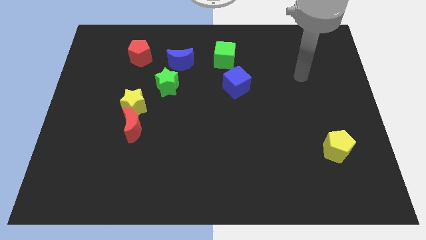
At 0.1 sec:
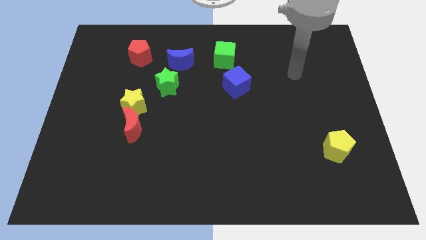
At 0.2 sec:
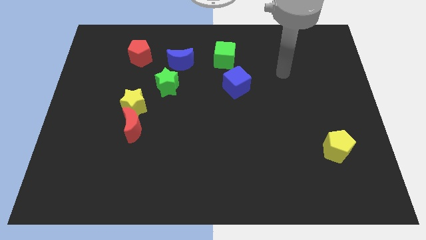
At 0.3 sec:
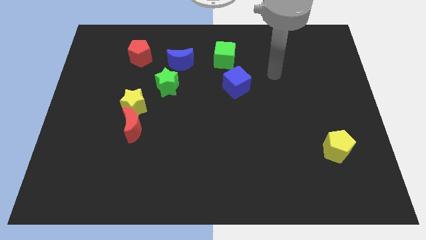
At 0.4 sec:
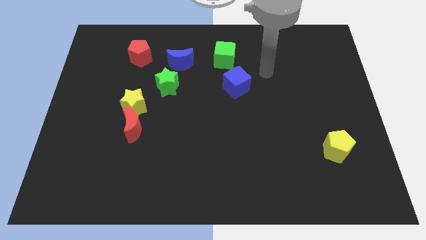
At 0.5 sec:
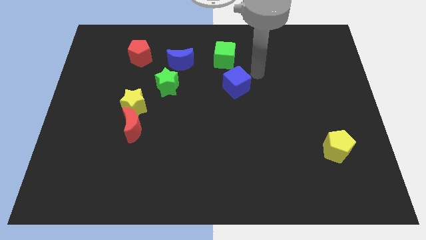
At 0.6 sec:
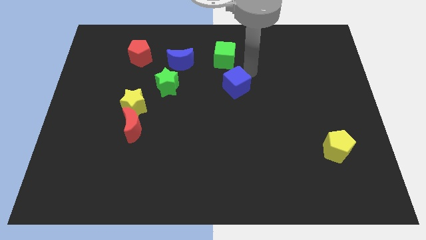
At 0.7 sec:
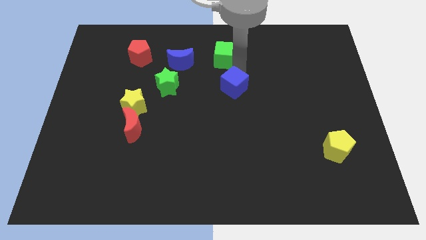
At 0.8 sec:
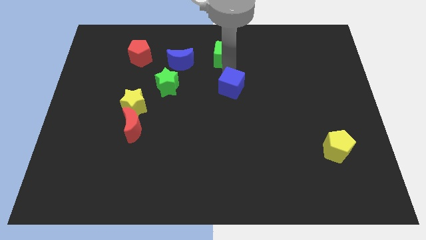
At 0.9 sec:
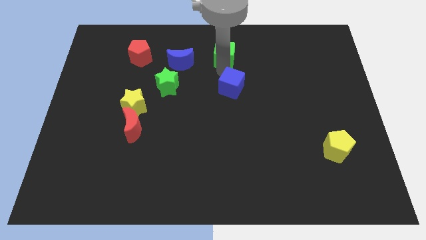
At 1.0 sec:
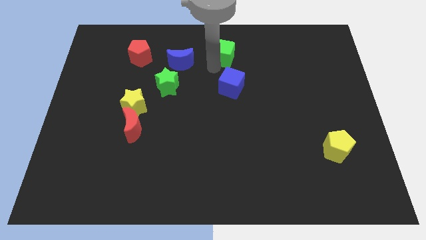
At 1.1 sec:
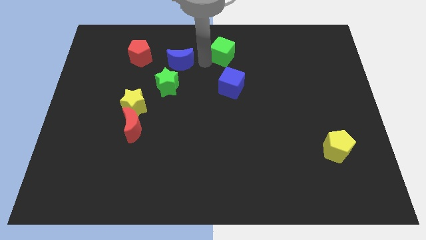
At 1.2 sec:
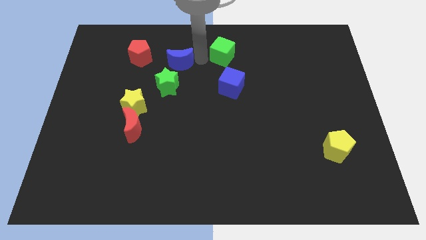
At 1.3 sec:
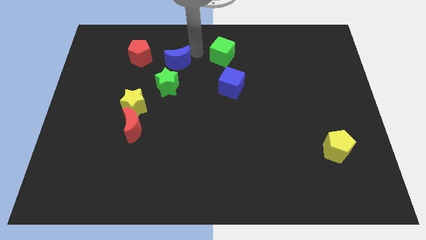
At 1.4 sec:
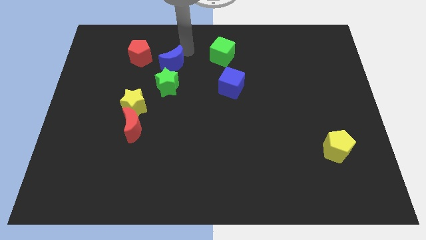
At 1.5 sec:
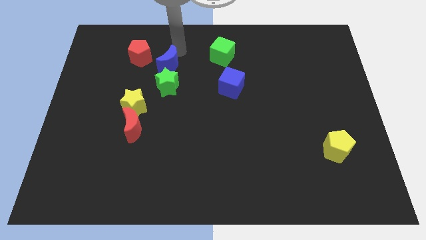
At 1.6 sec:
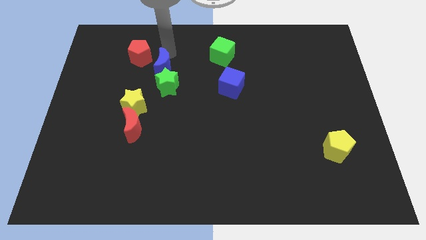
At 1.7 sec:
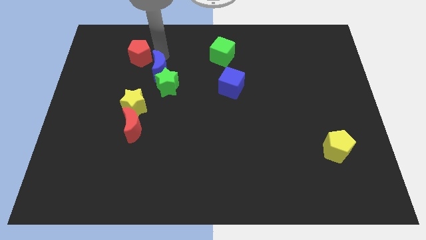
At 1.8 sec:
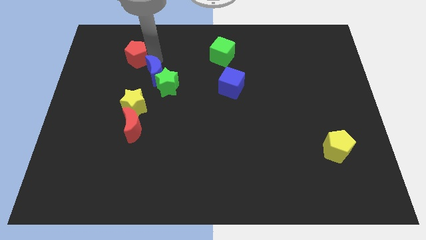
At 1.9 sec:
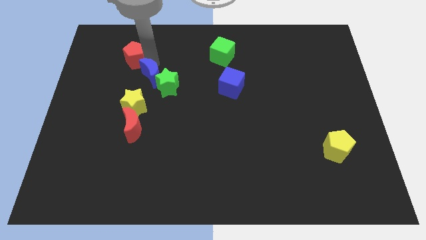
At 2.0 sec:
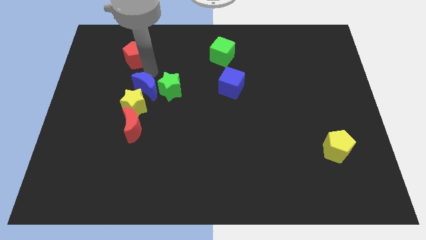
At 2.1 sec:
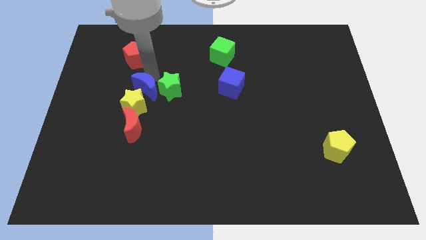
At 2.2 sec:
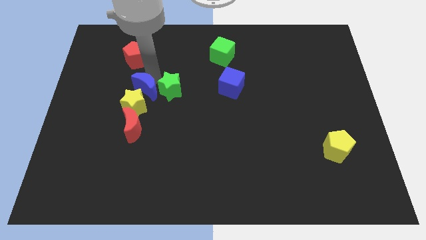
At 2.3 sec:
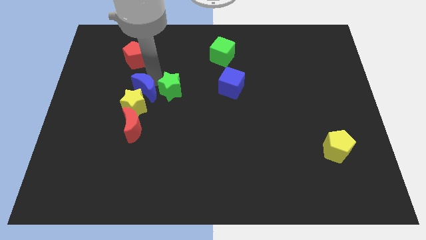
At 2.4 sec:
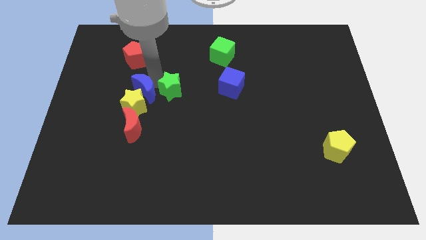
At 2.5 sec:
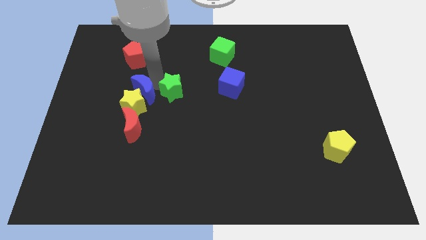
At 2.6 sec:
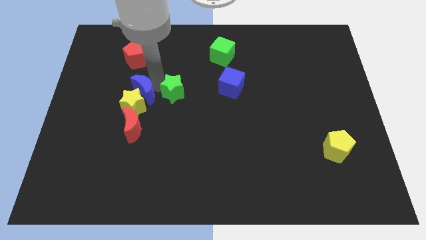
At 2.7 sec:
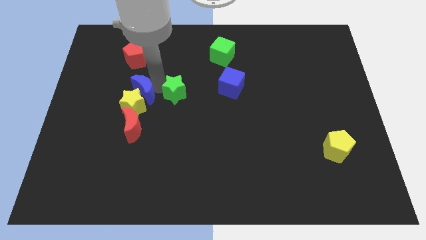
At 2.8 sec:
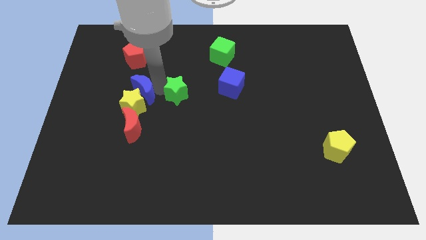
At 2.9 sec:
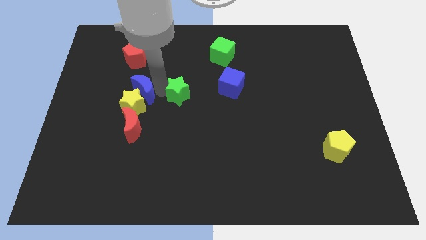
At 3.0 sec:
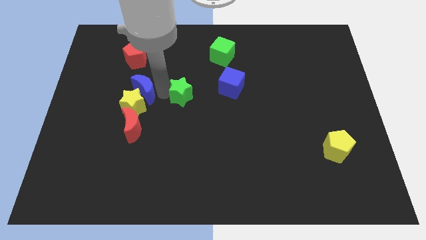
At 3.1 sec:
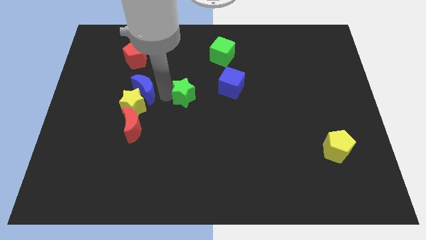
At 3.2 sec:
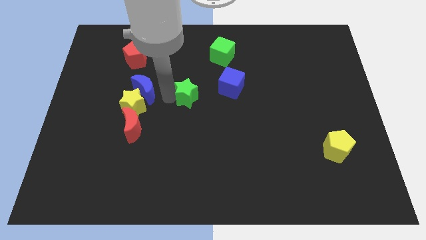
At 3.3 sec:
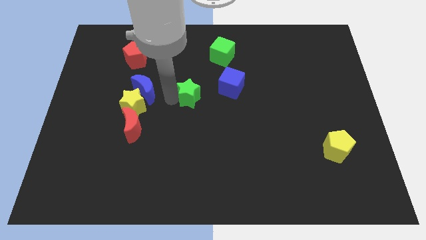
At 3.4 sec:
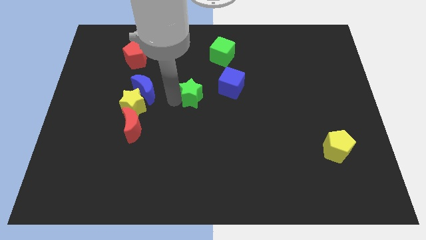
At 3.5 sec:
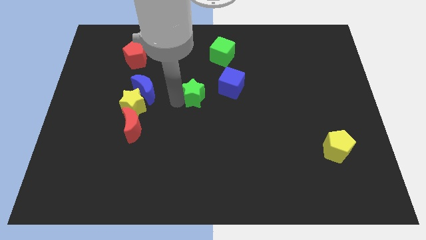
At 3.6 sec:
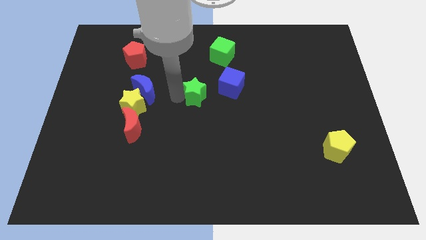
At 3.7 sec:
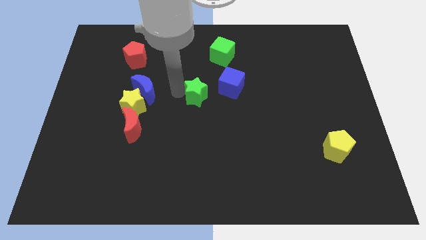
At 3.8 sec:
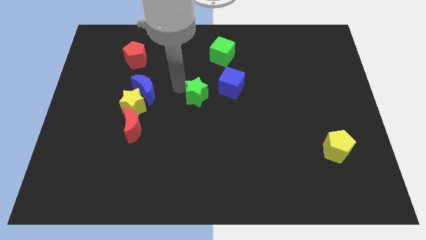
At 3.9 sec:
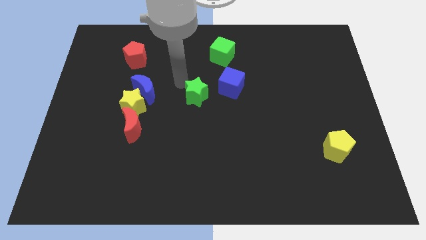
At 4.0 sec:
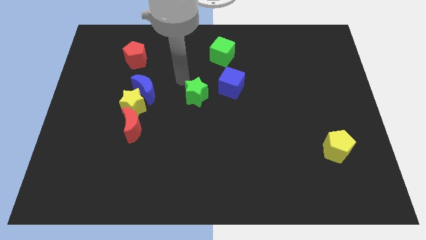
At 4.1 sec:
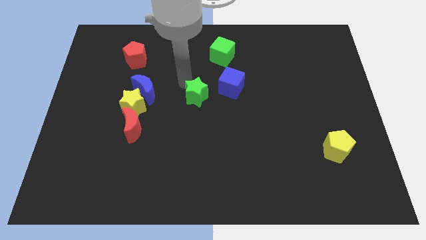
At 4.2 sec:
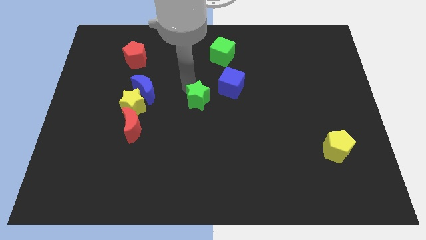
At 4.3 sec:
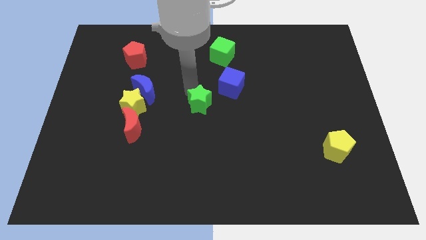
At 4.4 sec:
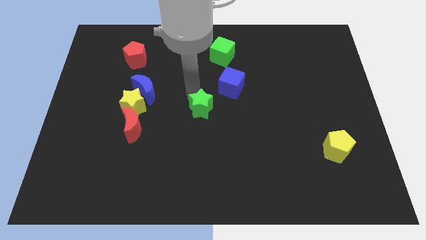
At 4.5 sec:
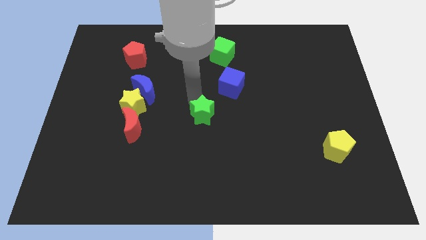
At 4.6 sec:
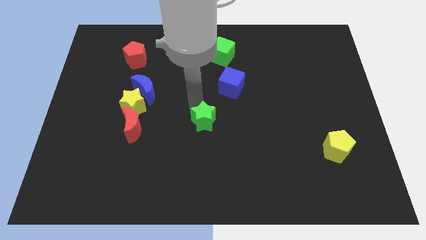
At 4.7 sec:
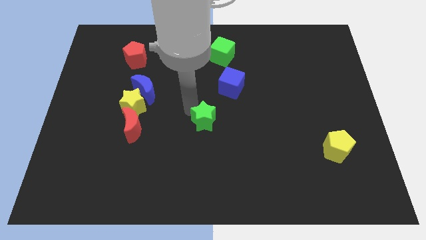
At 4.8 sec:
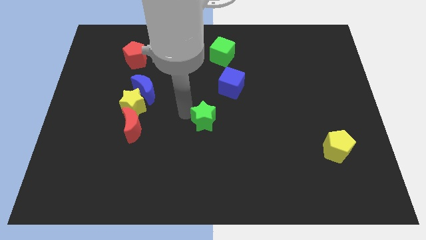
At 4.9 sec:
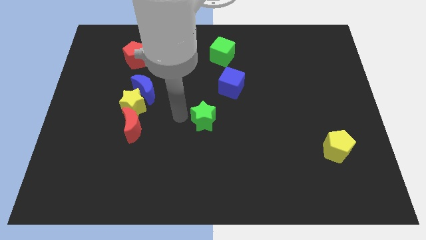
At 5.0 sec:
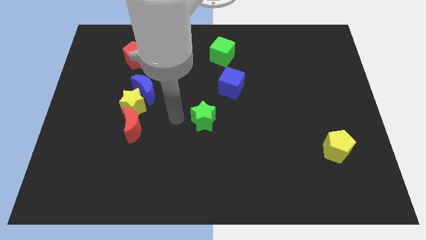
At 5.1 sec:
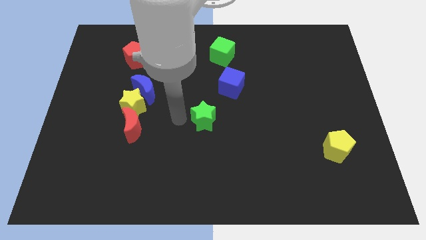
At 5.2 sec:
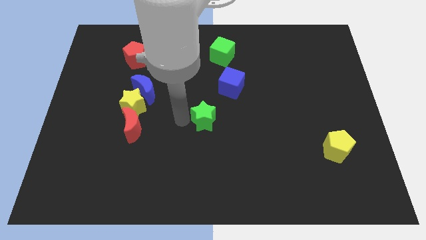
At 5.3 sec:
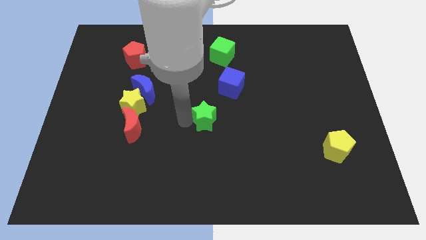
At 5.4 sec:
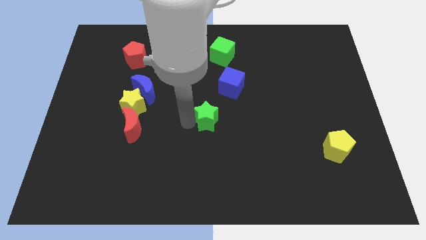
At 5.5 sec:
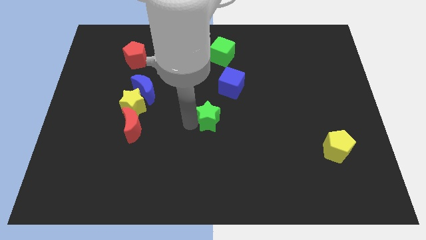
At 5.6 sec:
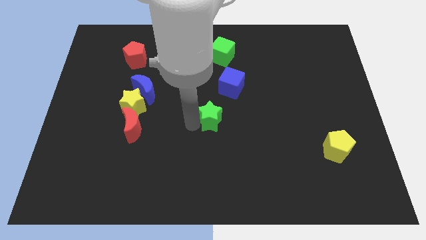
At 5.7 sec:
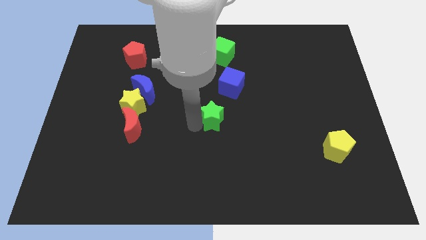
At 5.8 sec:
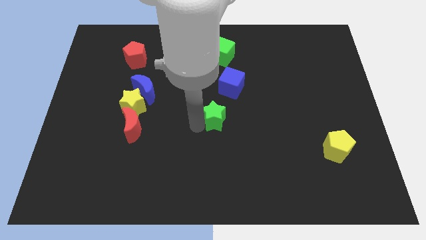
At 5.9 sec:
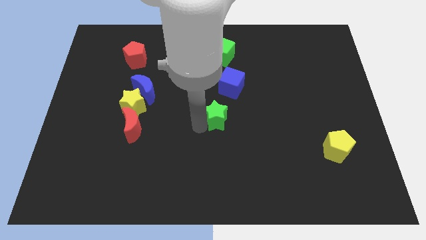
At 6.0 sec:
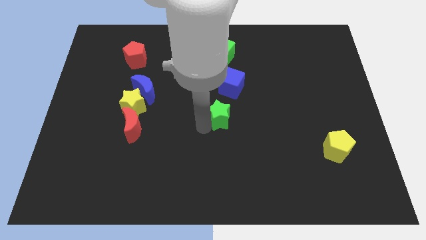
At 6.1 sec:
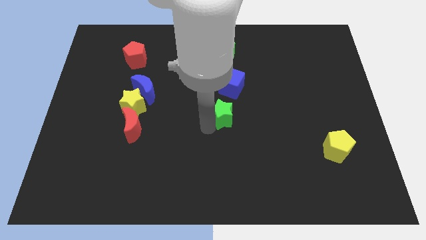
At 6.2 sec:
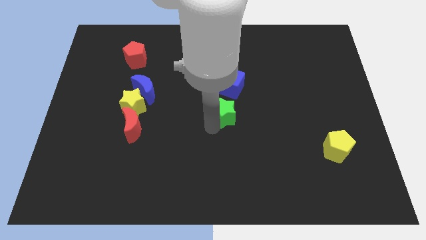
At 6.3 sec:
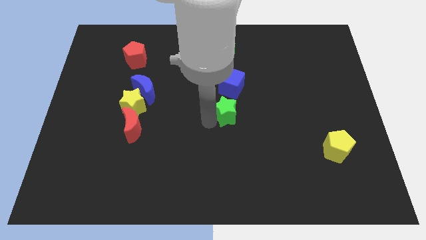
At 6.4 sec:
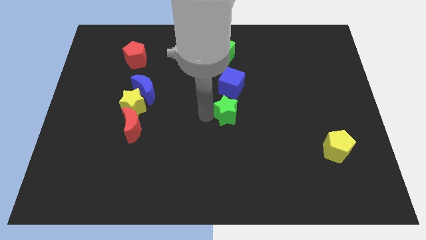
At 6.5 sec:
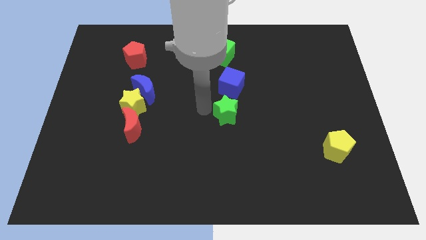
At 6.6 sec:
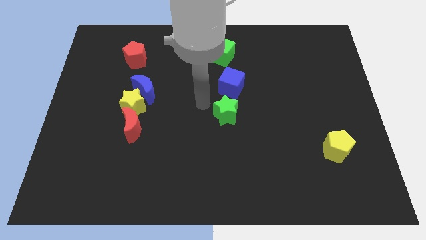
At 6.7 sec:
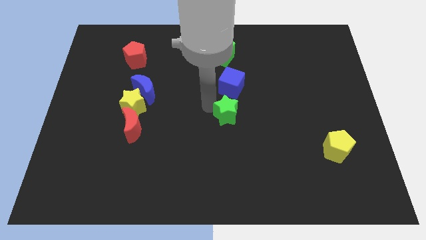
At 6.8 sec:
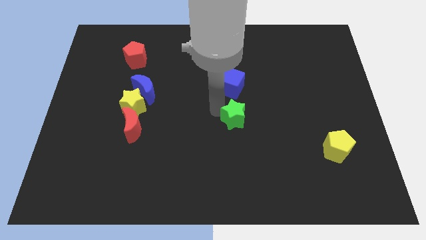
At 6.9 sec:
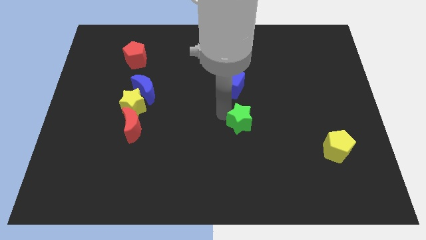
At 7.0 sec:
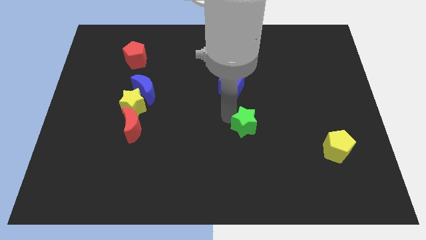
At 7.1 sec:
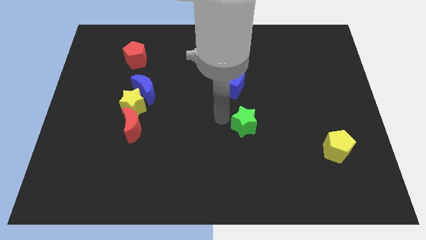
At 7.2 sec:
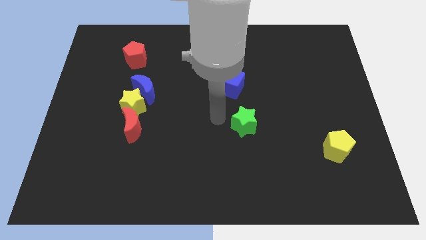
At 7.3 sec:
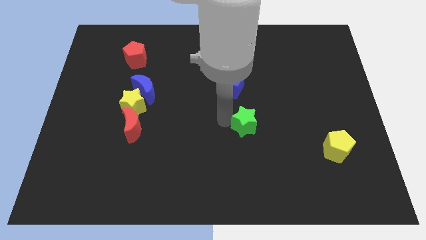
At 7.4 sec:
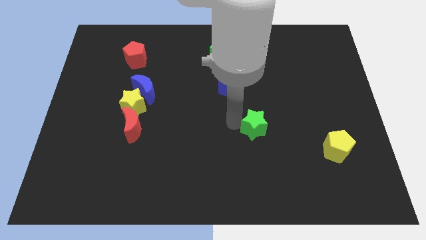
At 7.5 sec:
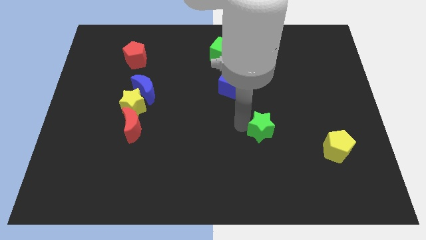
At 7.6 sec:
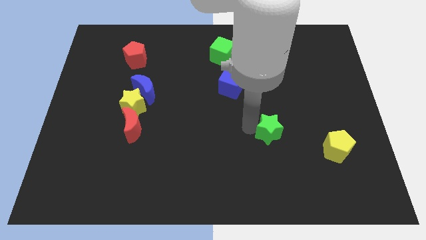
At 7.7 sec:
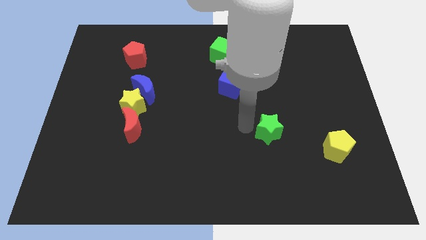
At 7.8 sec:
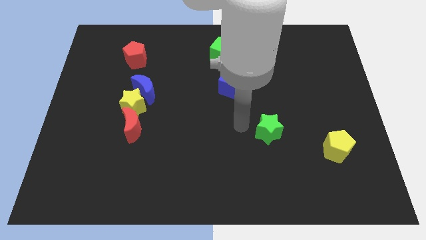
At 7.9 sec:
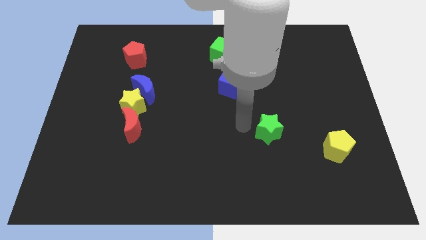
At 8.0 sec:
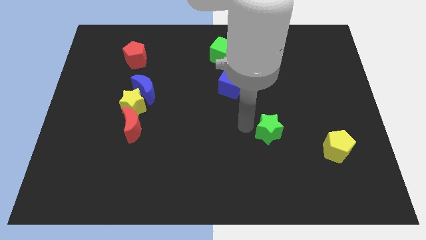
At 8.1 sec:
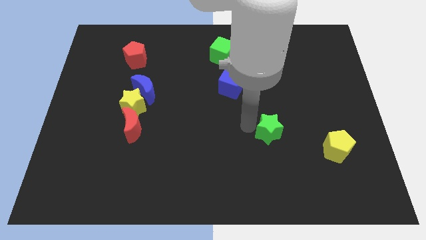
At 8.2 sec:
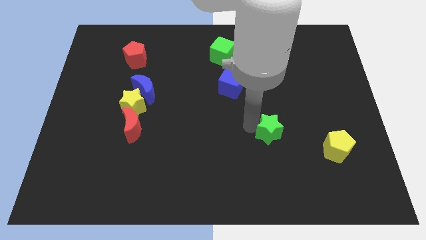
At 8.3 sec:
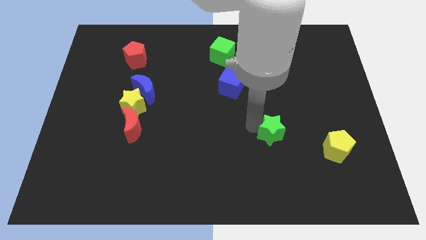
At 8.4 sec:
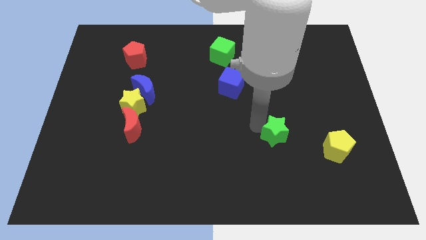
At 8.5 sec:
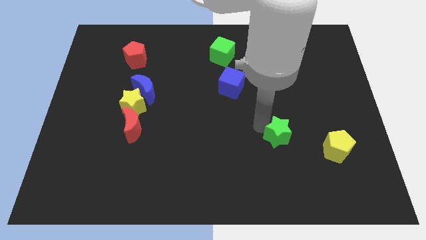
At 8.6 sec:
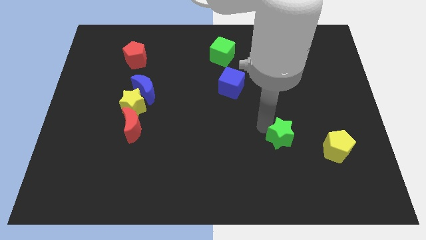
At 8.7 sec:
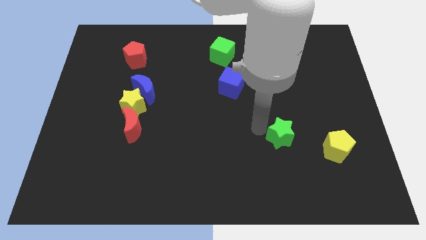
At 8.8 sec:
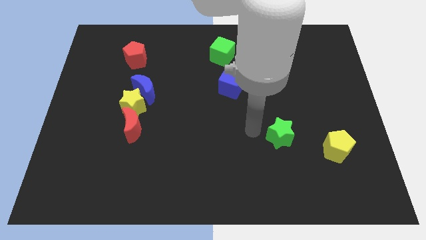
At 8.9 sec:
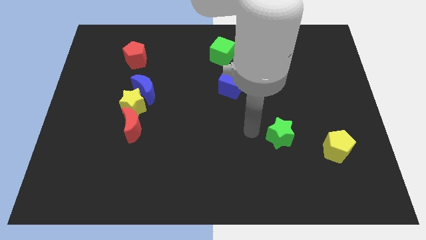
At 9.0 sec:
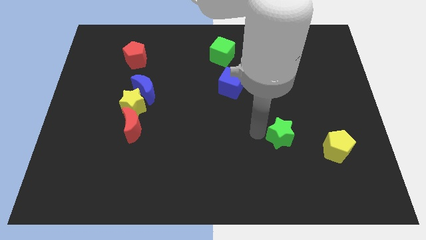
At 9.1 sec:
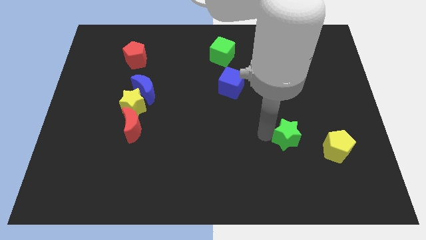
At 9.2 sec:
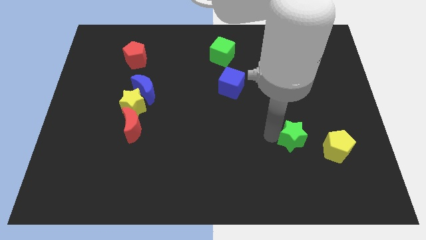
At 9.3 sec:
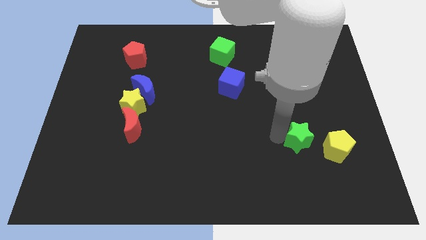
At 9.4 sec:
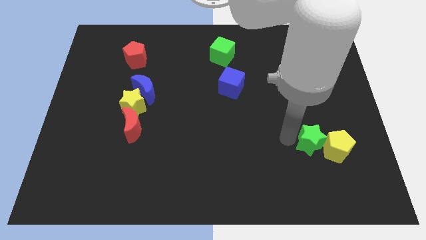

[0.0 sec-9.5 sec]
put the green star to the yellow pentagon
